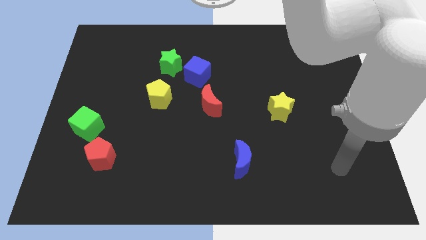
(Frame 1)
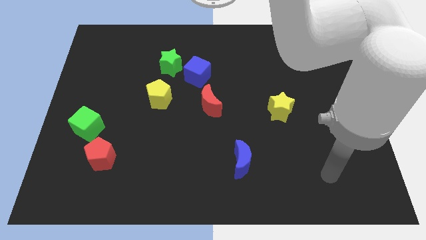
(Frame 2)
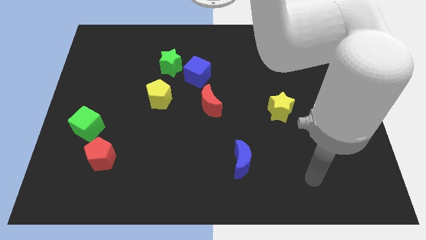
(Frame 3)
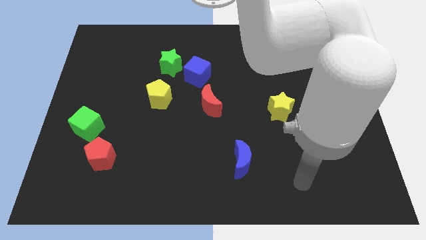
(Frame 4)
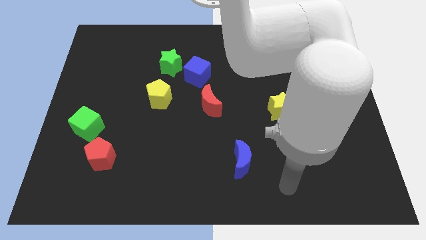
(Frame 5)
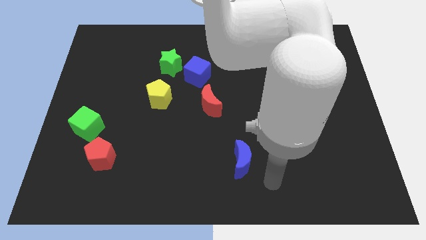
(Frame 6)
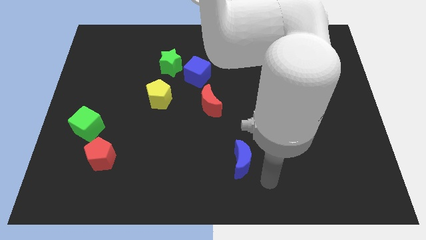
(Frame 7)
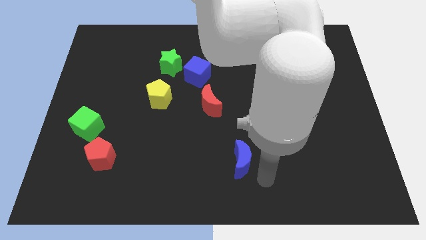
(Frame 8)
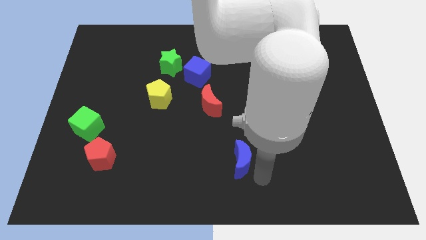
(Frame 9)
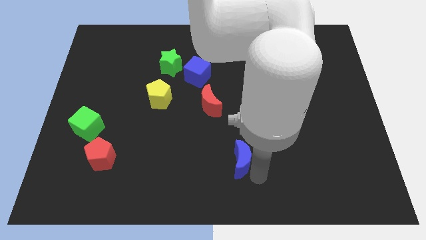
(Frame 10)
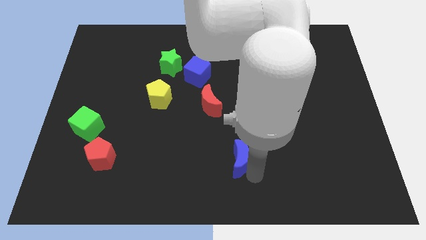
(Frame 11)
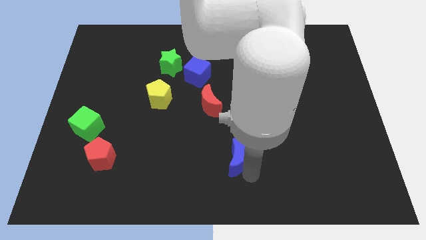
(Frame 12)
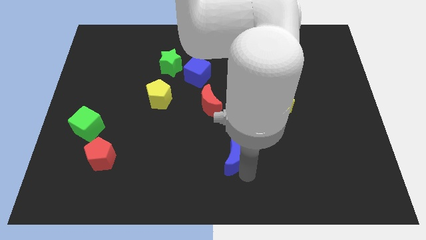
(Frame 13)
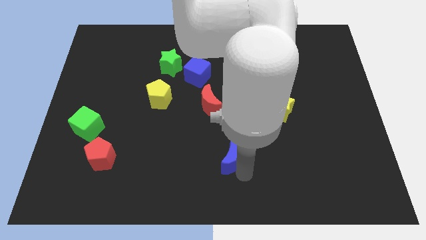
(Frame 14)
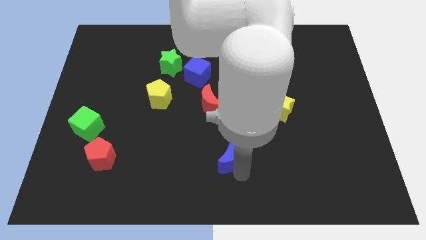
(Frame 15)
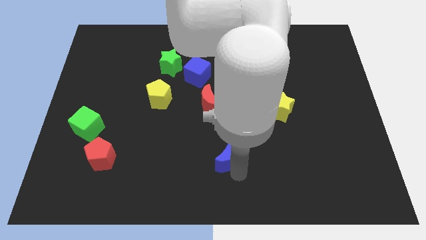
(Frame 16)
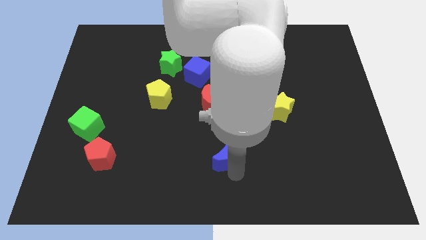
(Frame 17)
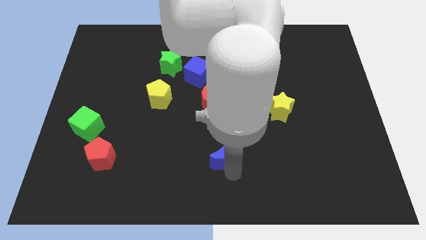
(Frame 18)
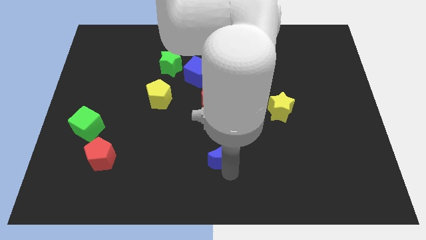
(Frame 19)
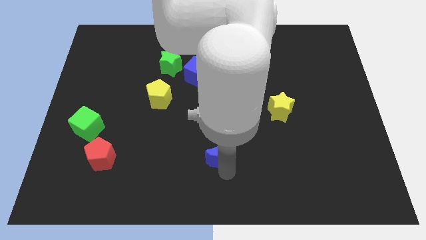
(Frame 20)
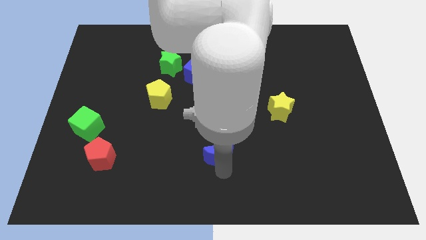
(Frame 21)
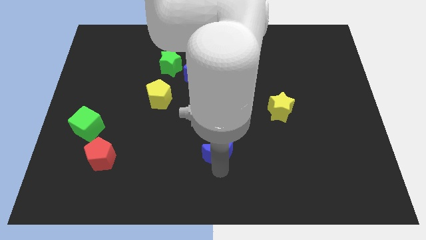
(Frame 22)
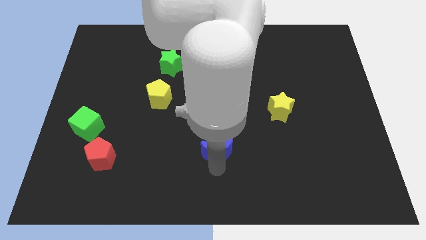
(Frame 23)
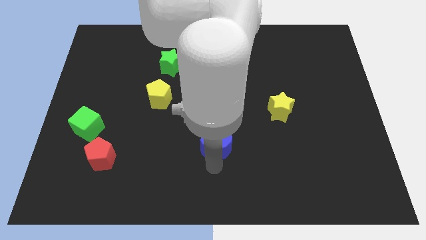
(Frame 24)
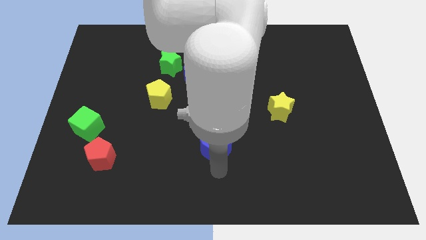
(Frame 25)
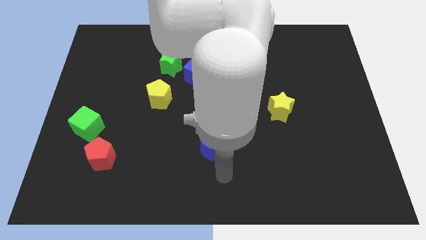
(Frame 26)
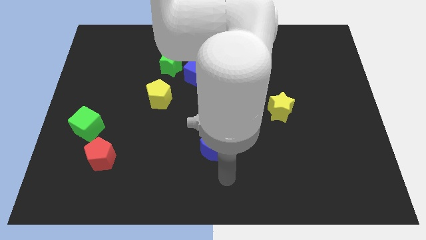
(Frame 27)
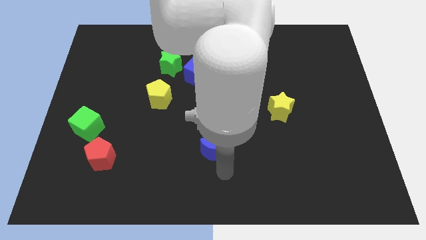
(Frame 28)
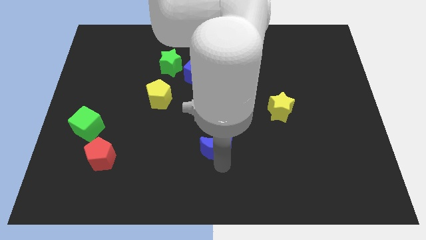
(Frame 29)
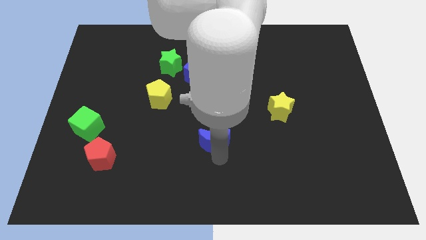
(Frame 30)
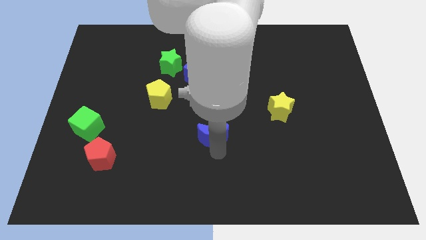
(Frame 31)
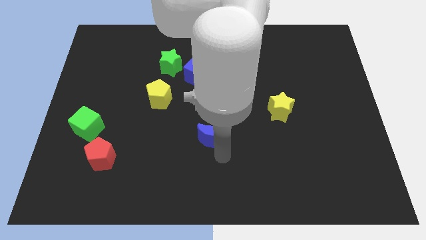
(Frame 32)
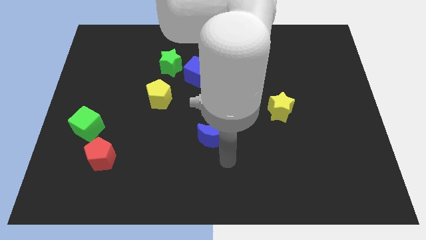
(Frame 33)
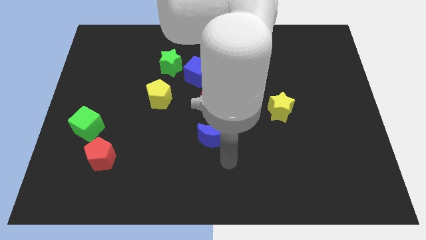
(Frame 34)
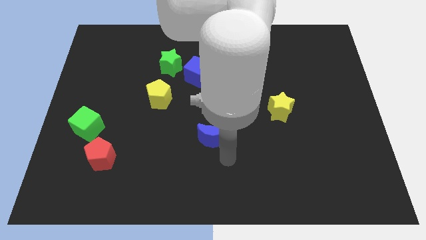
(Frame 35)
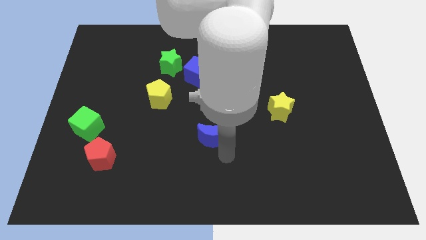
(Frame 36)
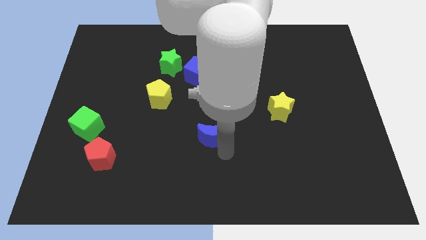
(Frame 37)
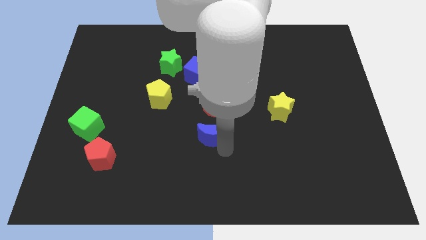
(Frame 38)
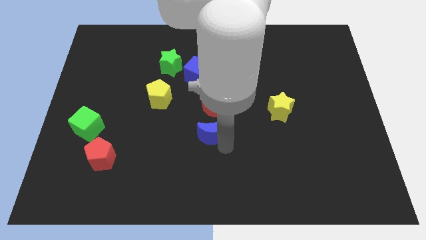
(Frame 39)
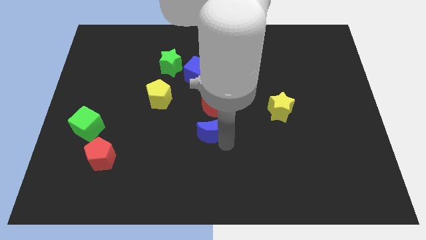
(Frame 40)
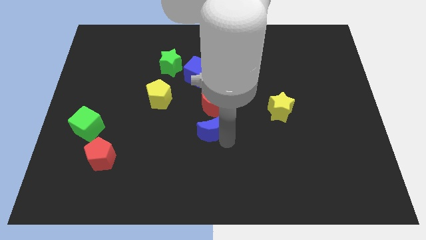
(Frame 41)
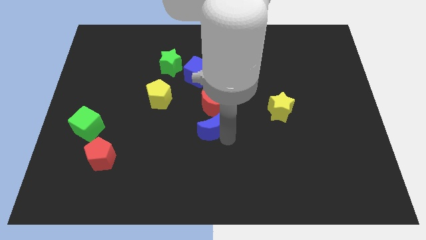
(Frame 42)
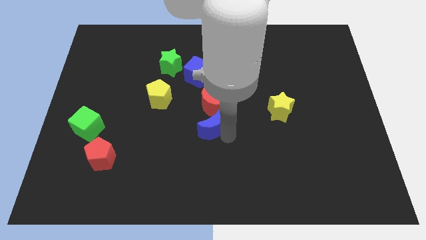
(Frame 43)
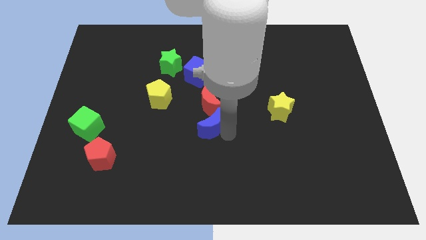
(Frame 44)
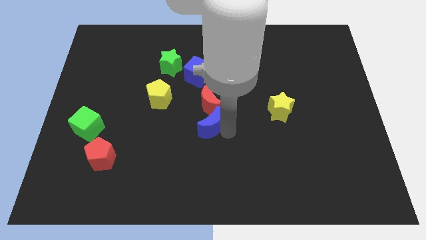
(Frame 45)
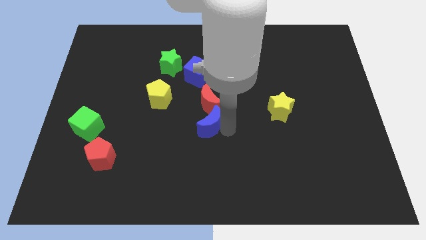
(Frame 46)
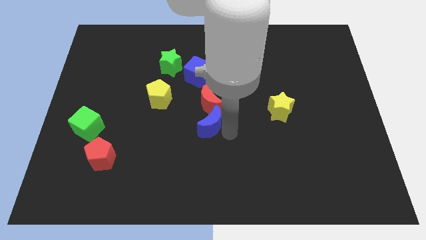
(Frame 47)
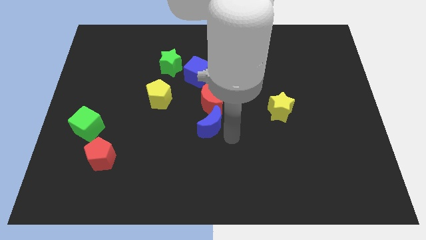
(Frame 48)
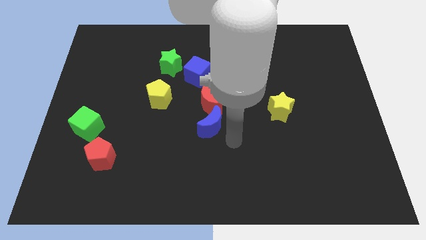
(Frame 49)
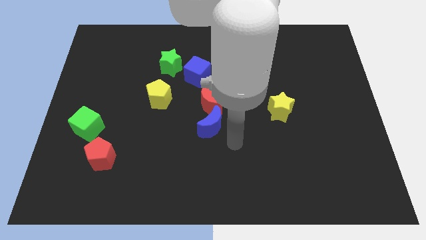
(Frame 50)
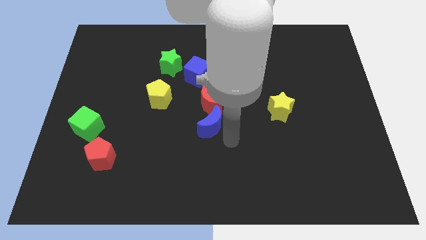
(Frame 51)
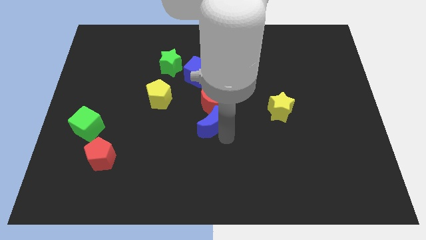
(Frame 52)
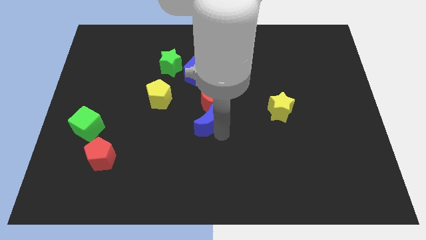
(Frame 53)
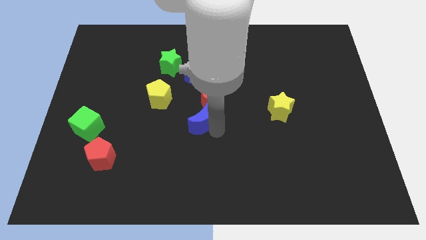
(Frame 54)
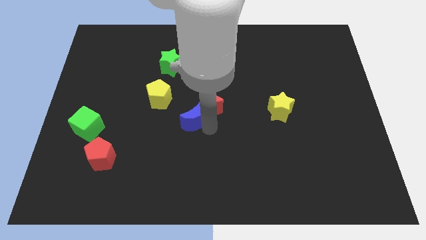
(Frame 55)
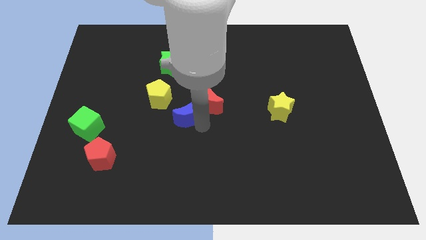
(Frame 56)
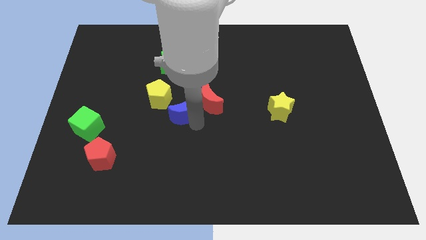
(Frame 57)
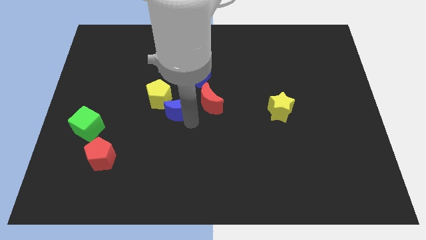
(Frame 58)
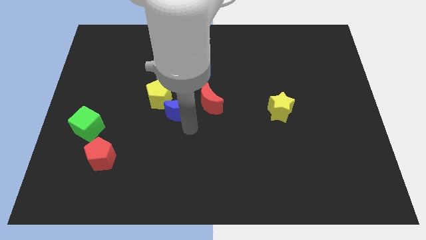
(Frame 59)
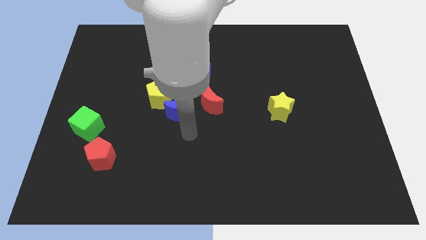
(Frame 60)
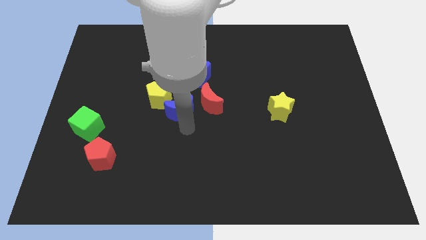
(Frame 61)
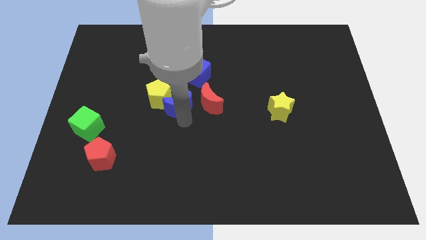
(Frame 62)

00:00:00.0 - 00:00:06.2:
move the blue moon diagonally up and left

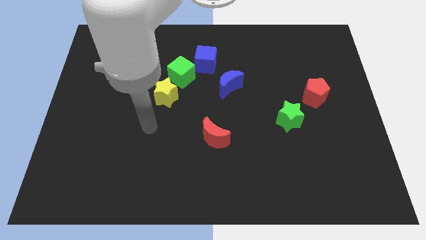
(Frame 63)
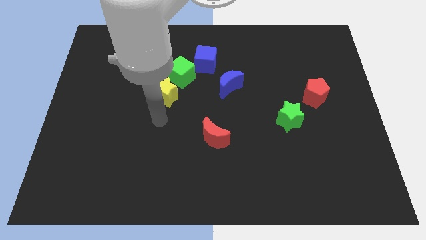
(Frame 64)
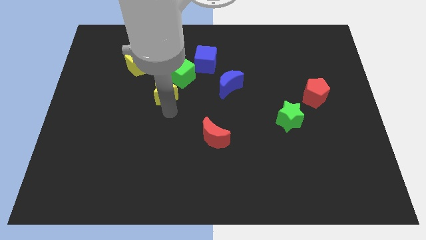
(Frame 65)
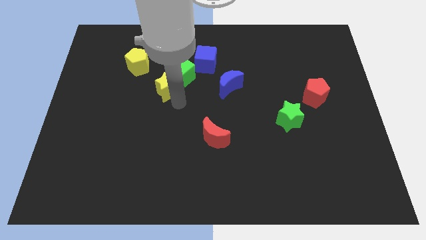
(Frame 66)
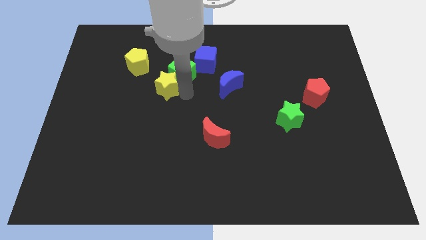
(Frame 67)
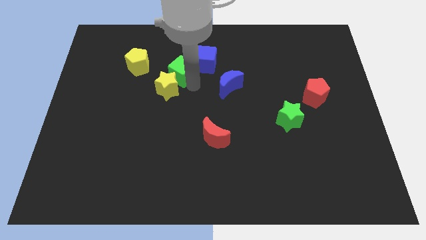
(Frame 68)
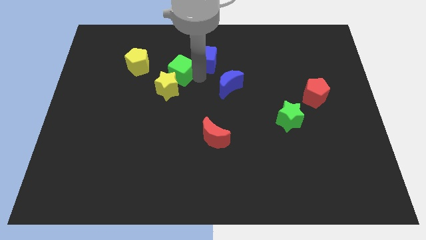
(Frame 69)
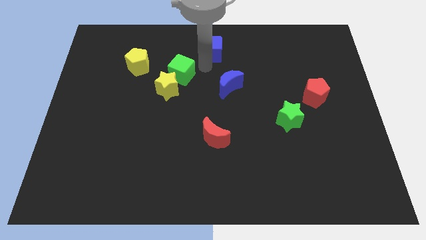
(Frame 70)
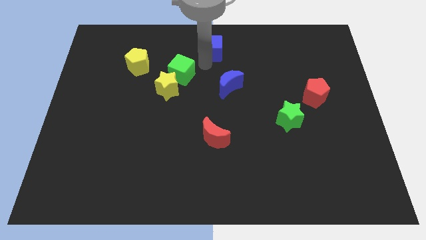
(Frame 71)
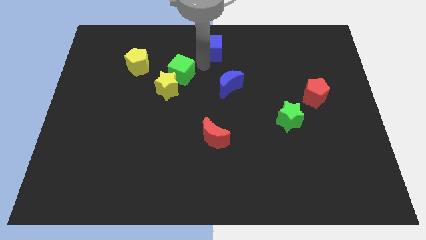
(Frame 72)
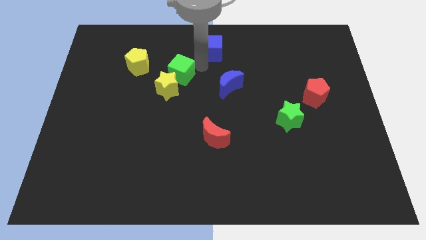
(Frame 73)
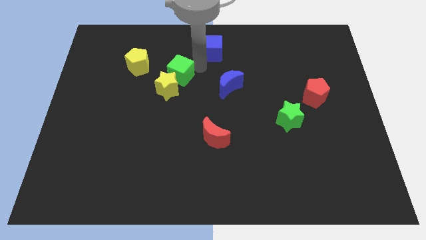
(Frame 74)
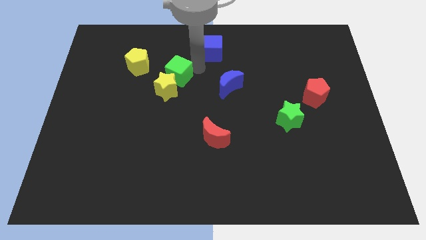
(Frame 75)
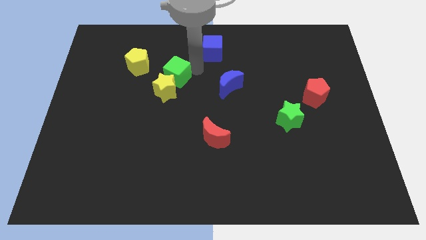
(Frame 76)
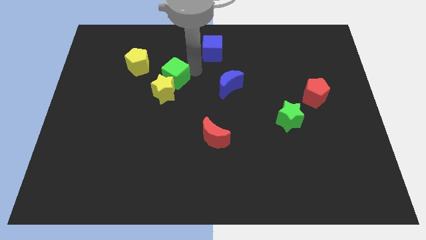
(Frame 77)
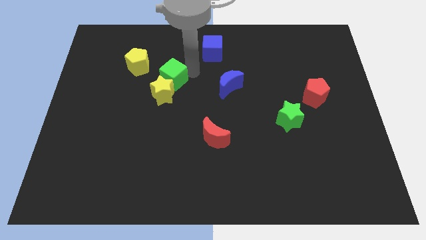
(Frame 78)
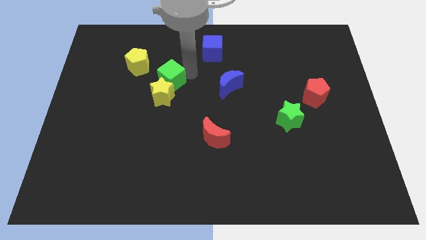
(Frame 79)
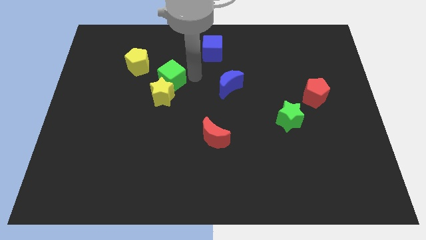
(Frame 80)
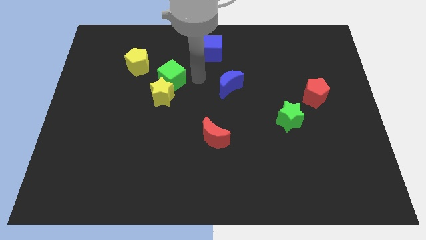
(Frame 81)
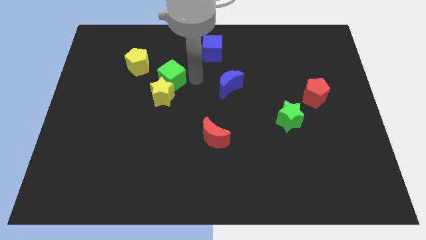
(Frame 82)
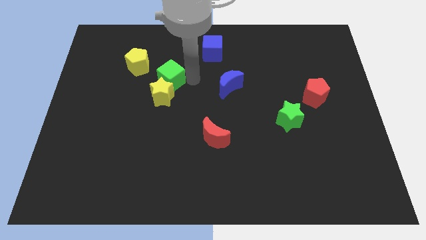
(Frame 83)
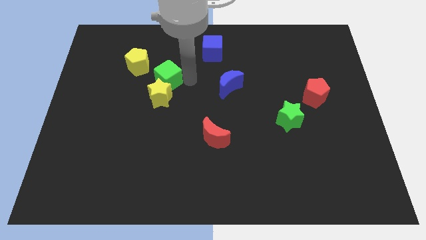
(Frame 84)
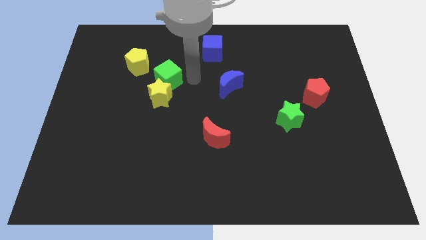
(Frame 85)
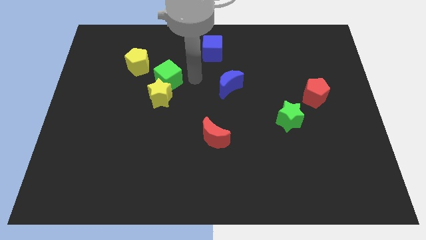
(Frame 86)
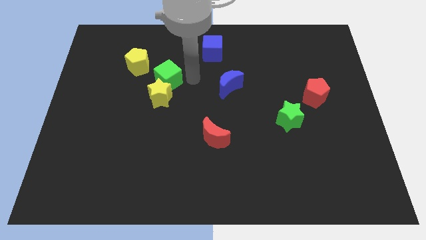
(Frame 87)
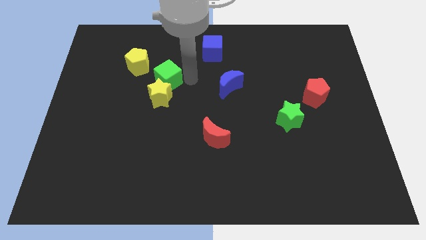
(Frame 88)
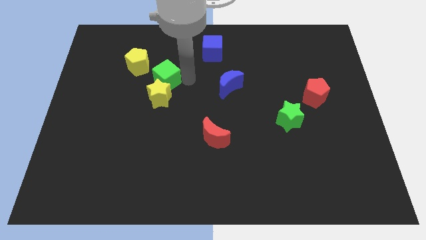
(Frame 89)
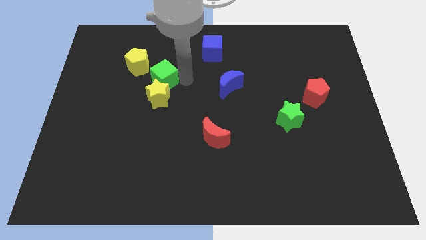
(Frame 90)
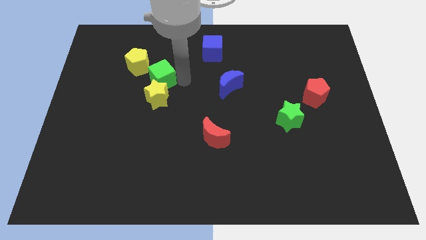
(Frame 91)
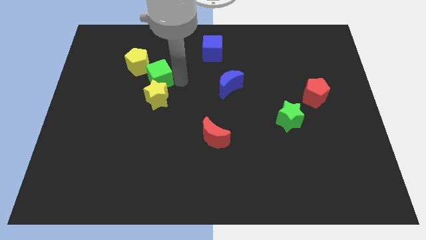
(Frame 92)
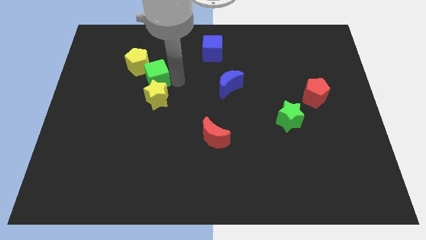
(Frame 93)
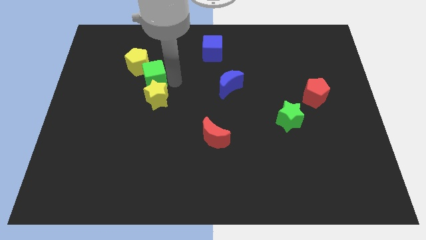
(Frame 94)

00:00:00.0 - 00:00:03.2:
slightly slide the green cube to the left
